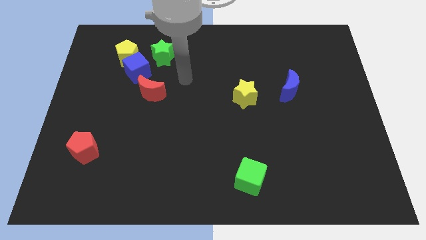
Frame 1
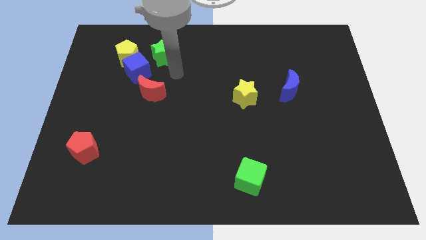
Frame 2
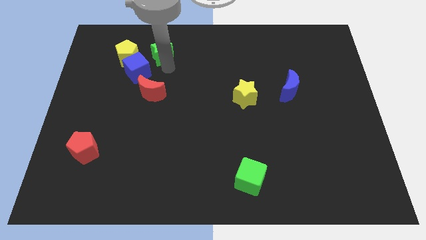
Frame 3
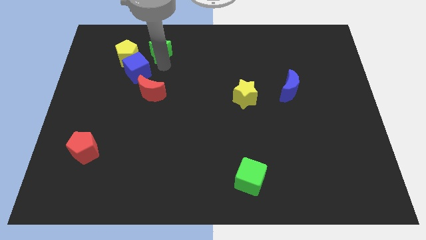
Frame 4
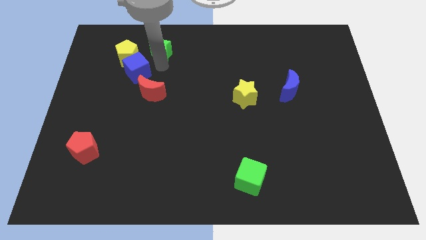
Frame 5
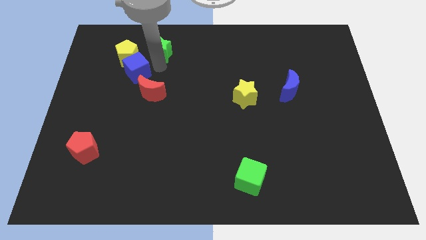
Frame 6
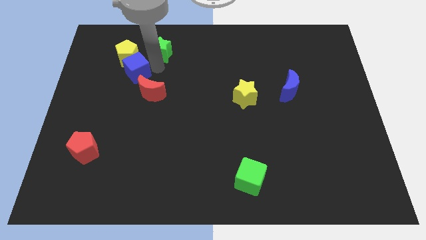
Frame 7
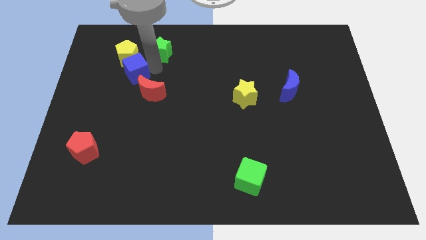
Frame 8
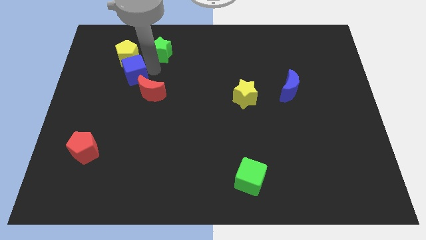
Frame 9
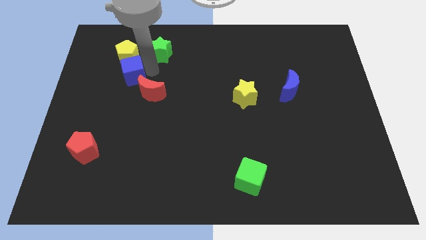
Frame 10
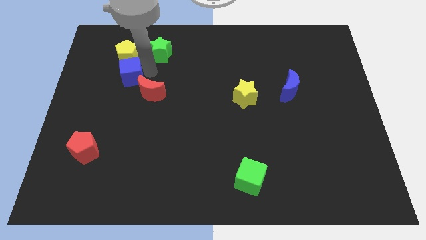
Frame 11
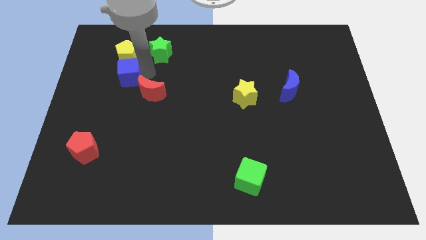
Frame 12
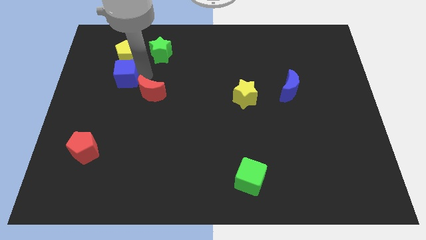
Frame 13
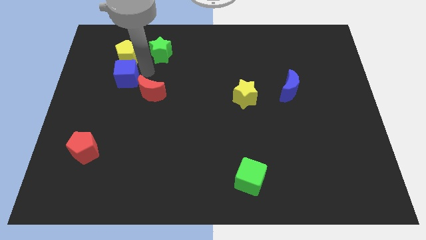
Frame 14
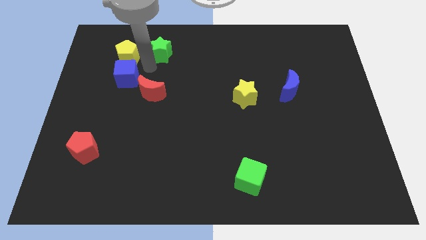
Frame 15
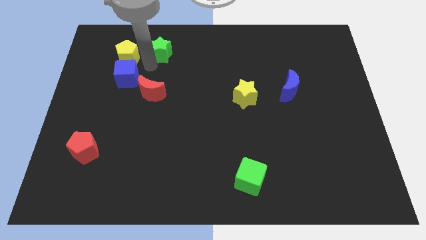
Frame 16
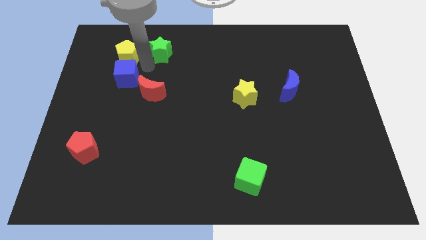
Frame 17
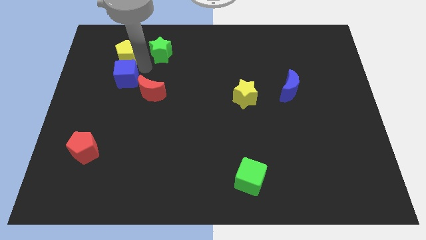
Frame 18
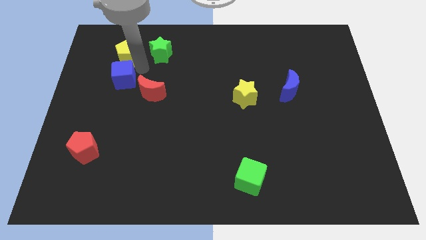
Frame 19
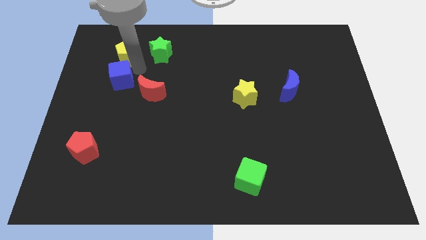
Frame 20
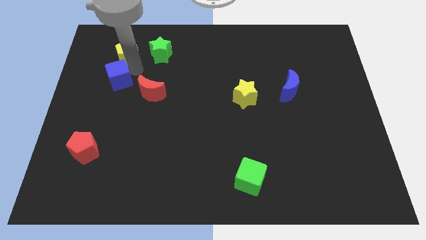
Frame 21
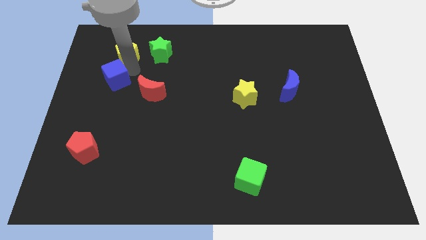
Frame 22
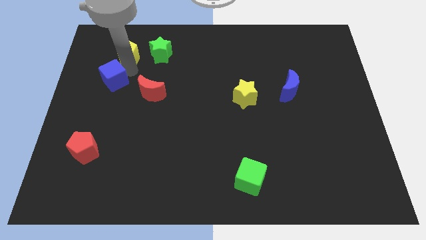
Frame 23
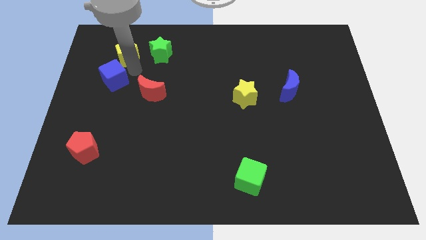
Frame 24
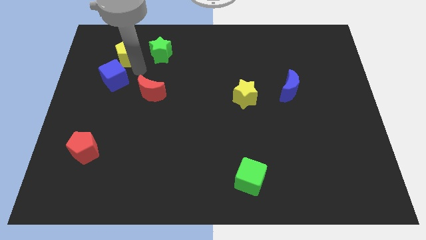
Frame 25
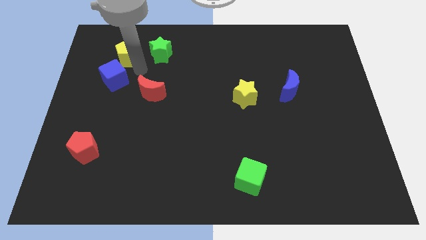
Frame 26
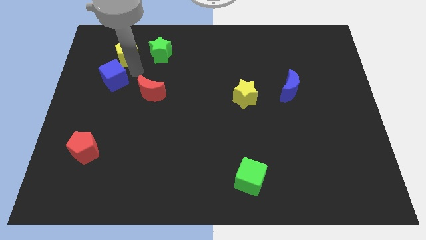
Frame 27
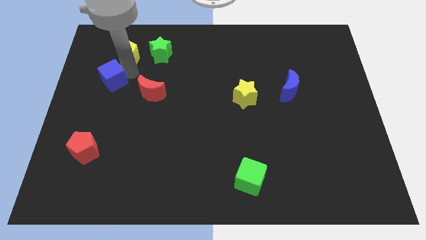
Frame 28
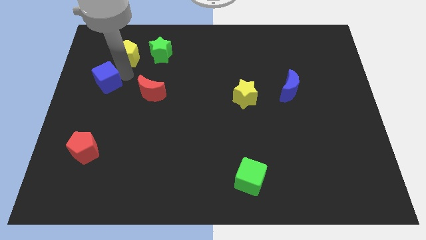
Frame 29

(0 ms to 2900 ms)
pull the blue cube apart from the group

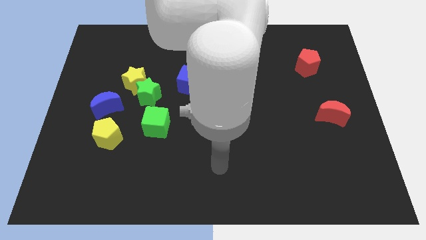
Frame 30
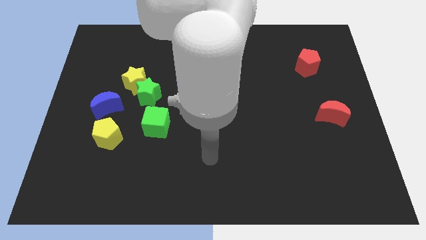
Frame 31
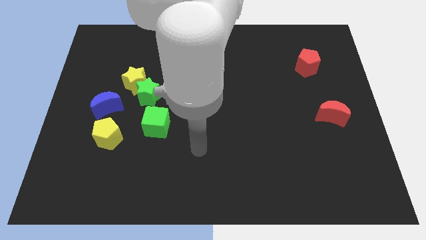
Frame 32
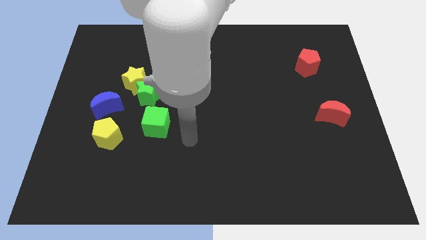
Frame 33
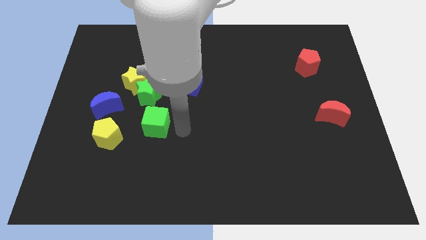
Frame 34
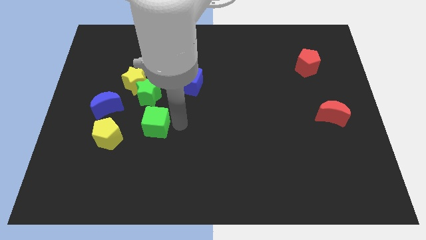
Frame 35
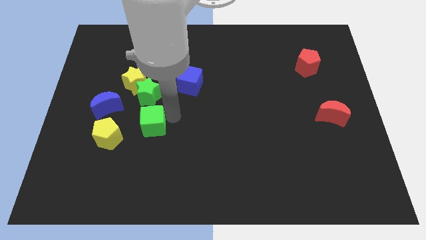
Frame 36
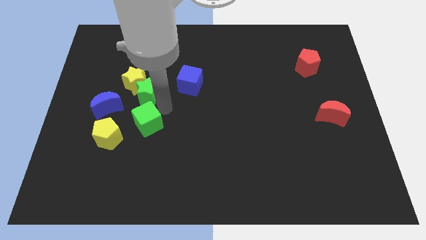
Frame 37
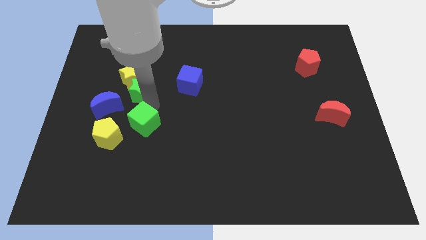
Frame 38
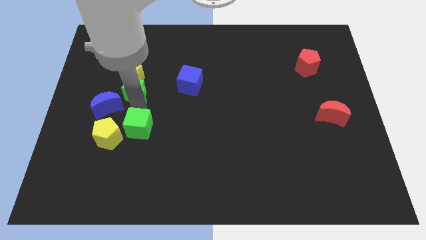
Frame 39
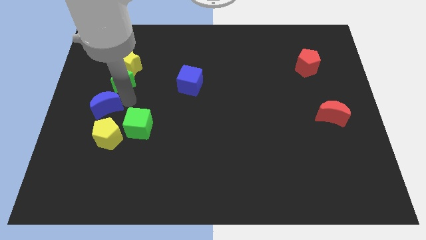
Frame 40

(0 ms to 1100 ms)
separate the yellow star from the green star and blue moon

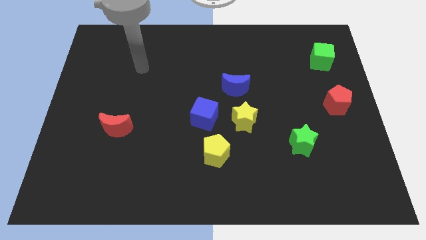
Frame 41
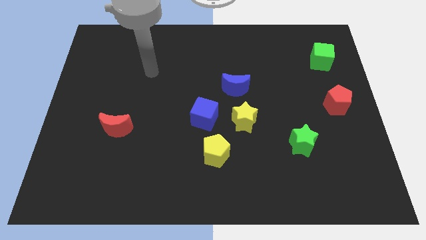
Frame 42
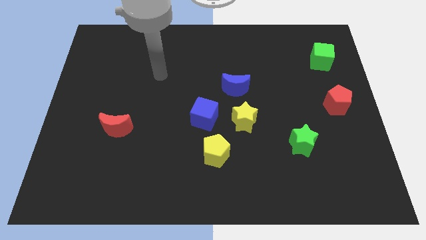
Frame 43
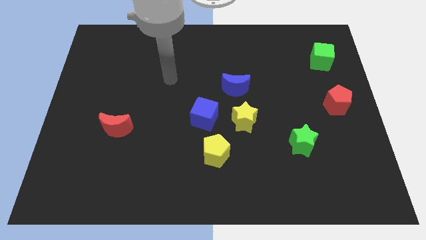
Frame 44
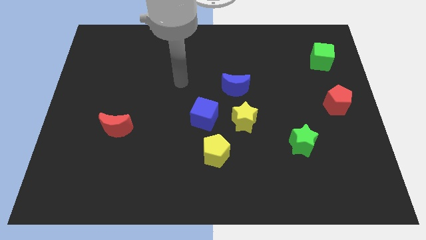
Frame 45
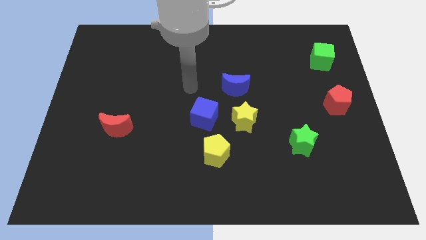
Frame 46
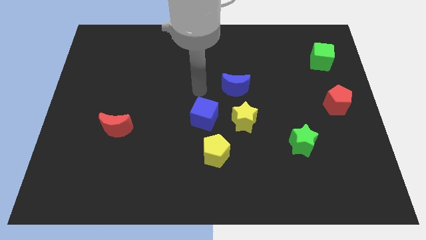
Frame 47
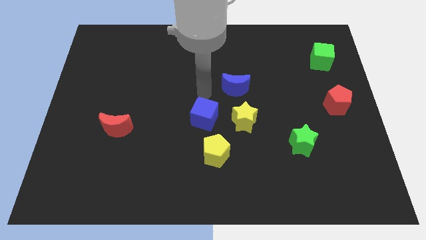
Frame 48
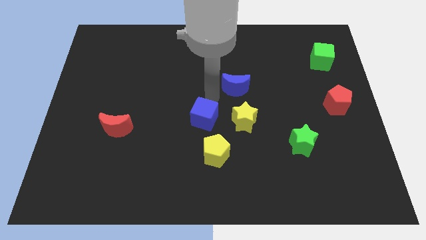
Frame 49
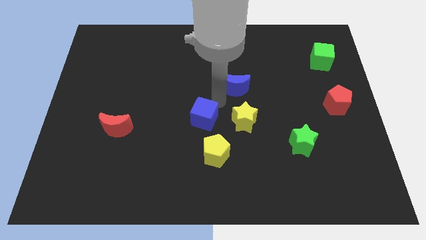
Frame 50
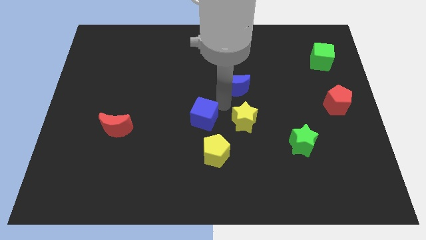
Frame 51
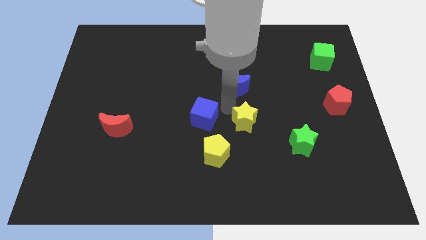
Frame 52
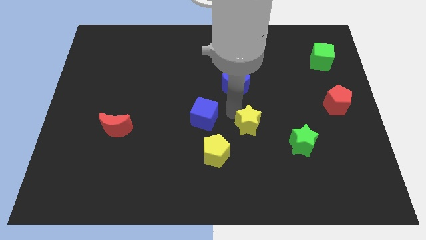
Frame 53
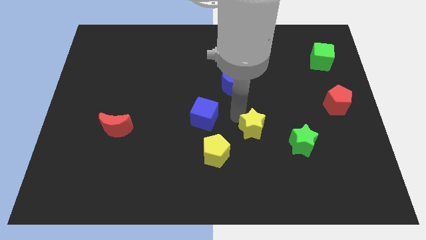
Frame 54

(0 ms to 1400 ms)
separate the yellow star from the blue cube and blue moon

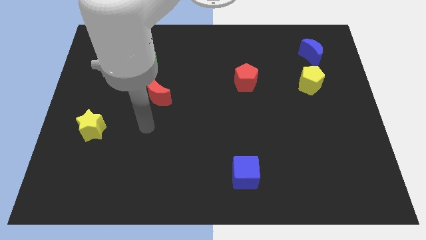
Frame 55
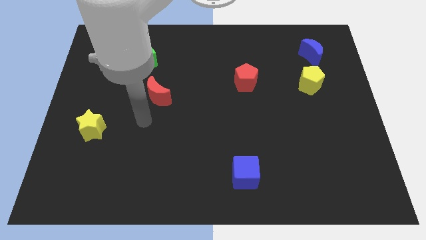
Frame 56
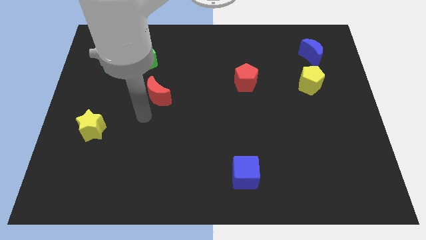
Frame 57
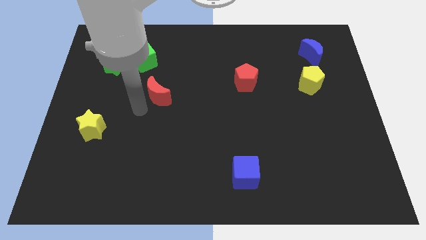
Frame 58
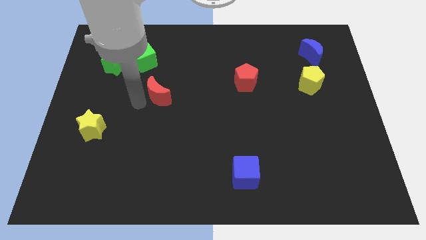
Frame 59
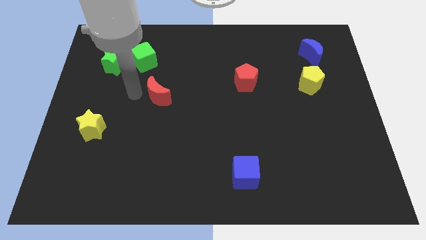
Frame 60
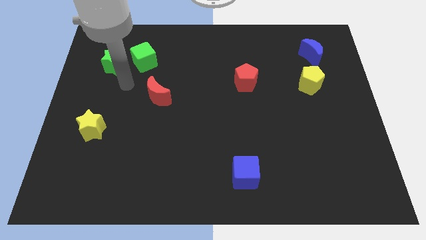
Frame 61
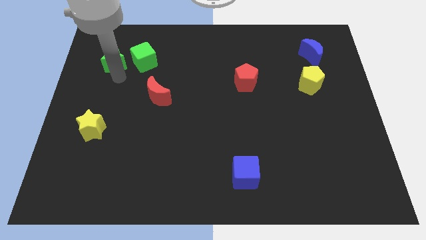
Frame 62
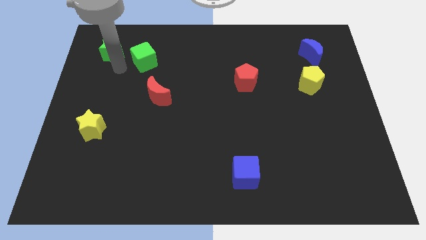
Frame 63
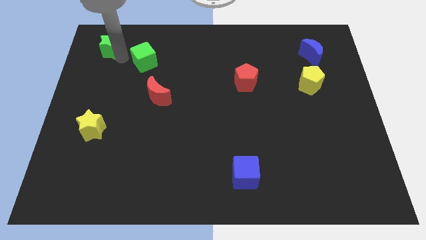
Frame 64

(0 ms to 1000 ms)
pull the green cube apart from the green star

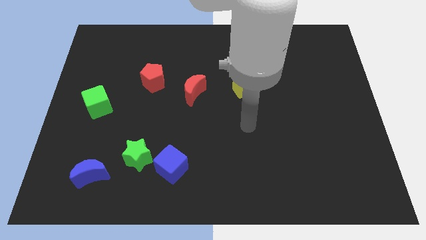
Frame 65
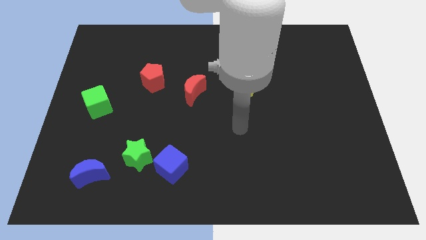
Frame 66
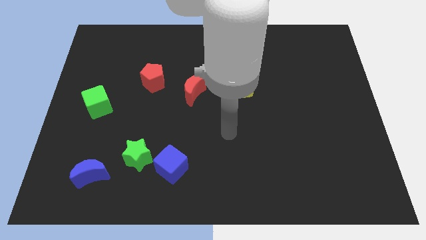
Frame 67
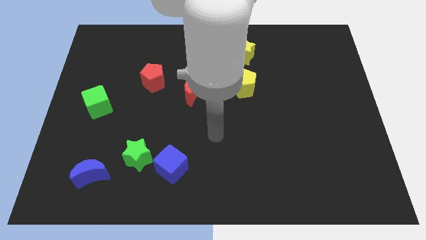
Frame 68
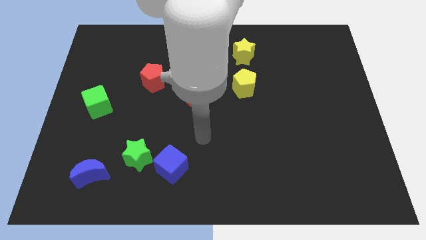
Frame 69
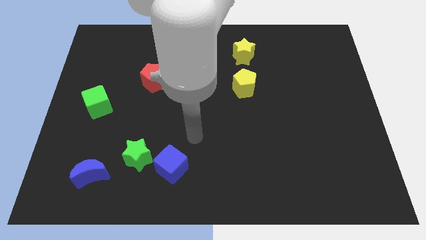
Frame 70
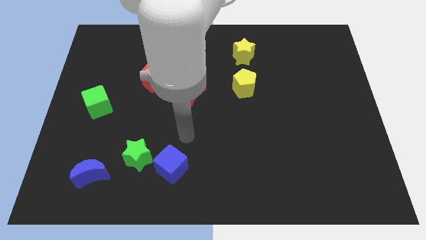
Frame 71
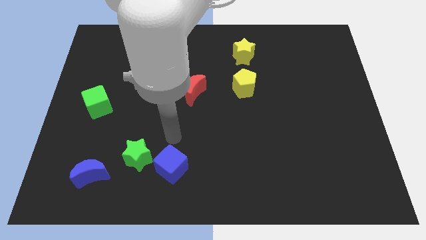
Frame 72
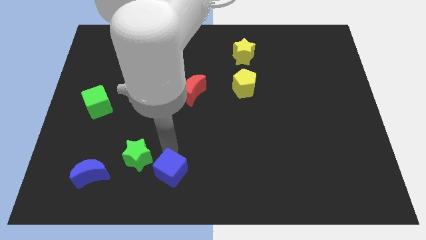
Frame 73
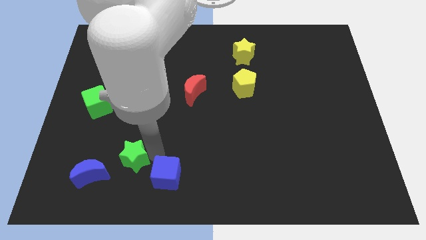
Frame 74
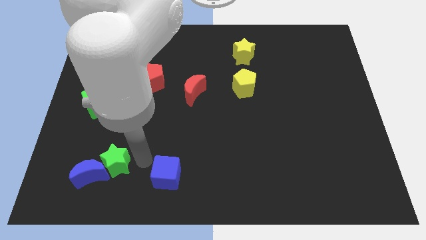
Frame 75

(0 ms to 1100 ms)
pull the blue cube apart from the green star

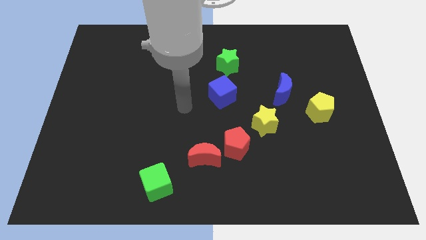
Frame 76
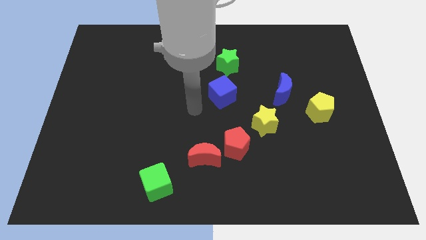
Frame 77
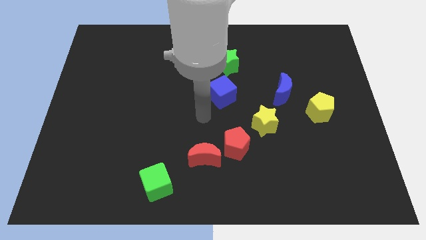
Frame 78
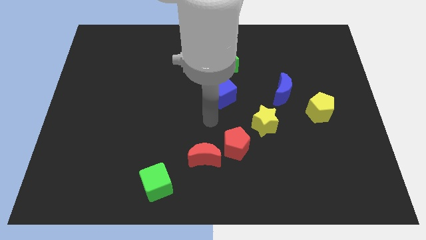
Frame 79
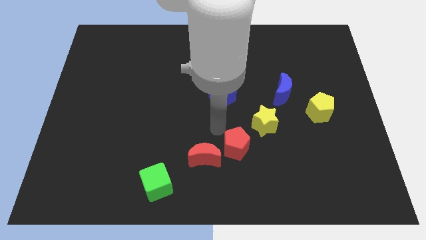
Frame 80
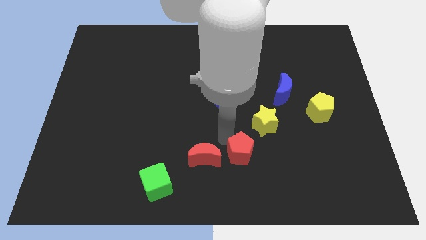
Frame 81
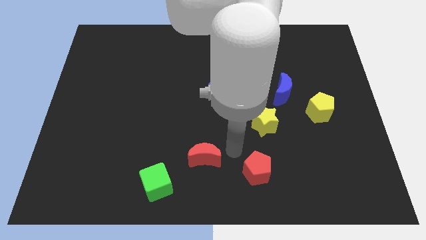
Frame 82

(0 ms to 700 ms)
separate the red moon from the red pentagon

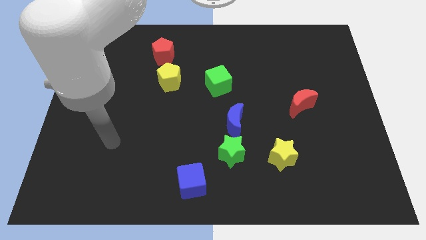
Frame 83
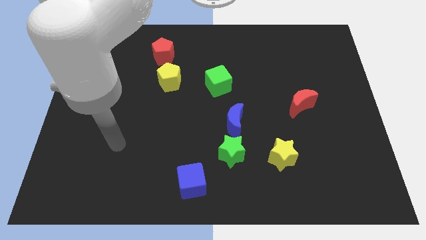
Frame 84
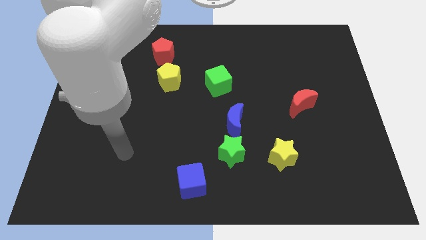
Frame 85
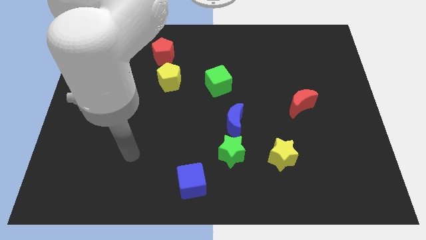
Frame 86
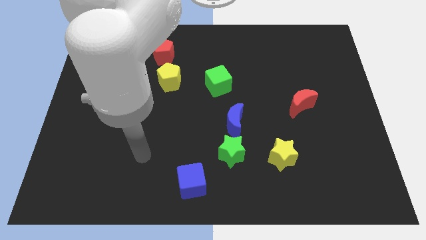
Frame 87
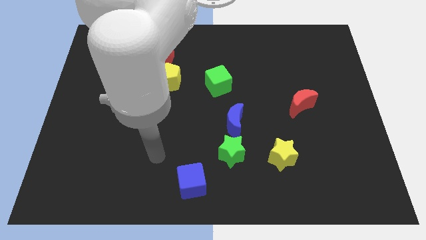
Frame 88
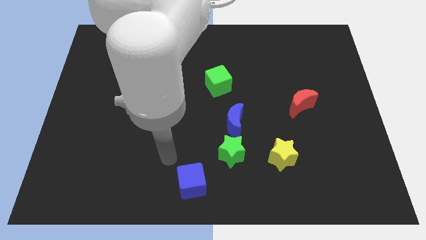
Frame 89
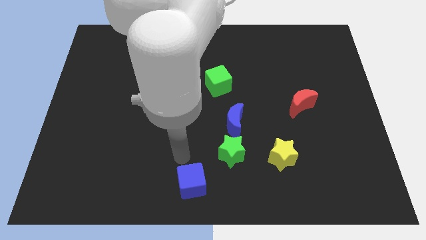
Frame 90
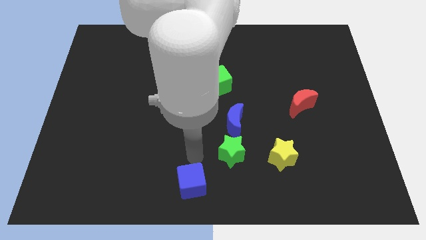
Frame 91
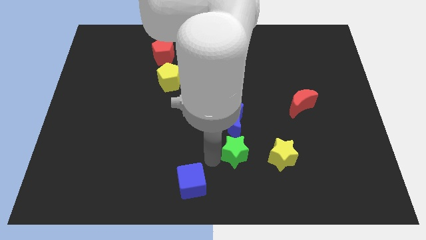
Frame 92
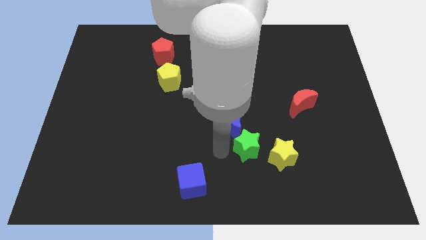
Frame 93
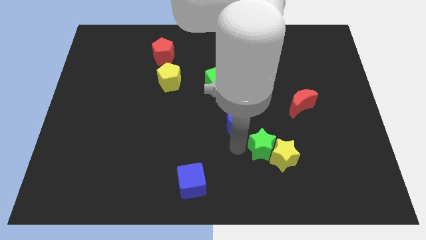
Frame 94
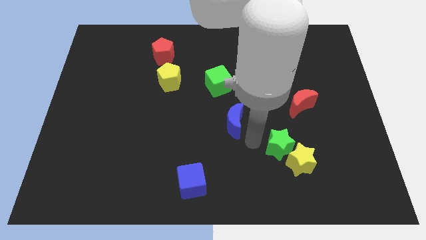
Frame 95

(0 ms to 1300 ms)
move the blue moon away from the green star
